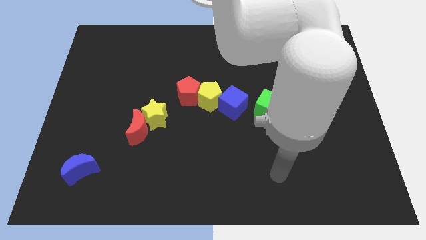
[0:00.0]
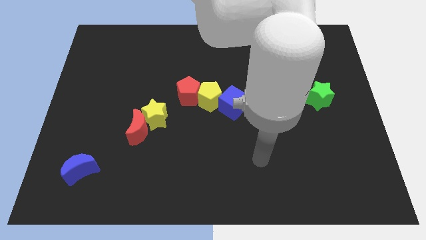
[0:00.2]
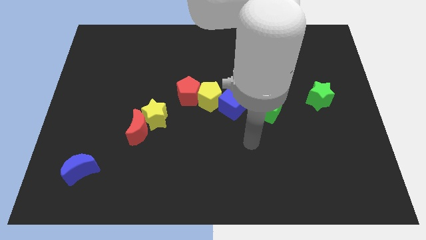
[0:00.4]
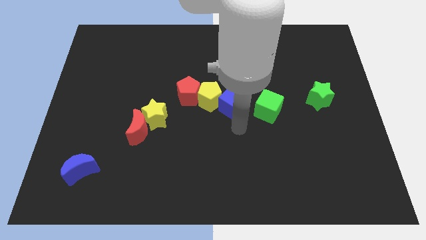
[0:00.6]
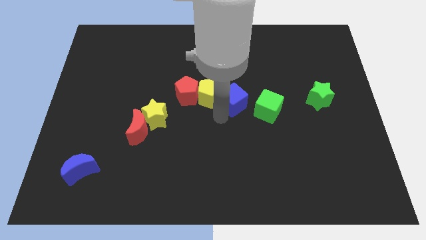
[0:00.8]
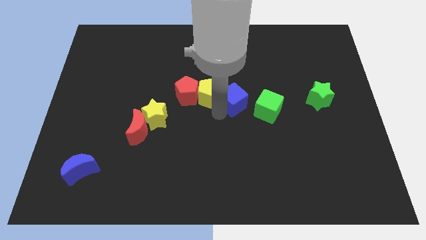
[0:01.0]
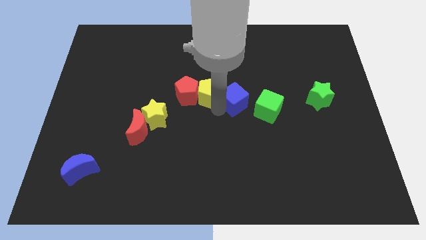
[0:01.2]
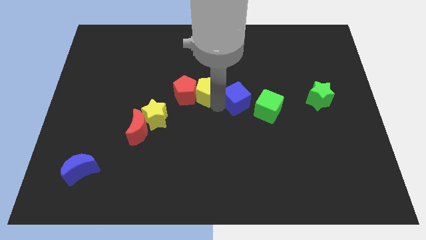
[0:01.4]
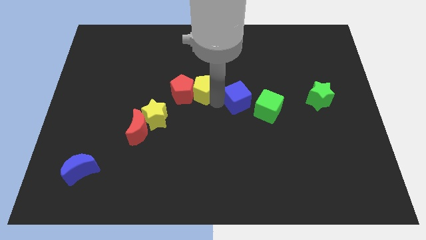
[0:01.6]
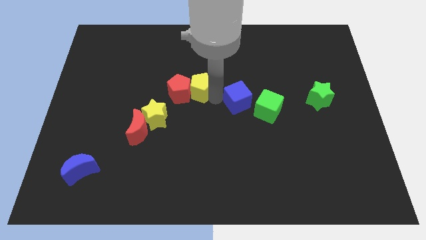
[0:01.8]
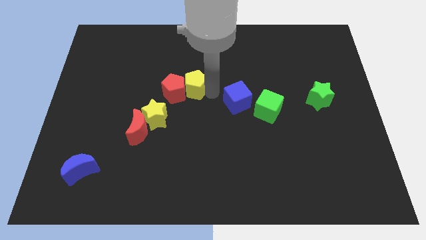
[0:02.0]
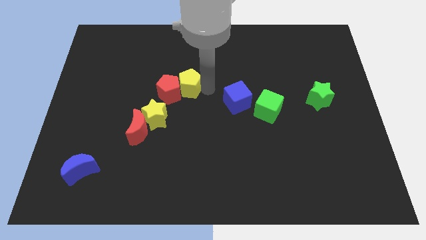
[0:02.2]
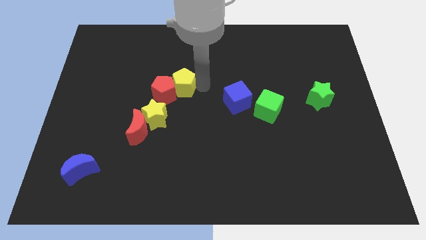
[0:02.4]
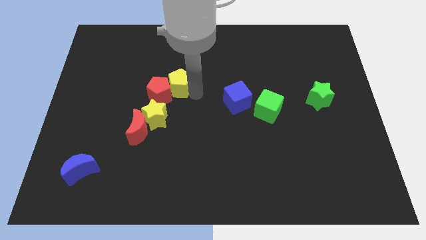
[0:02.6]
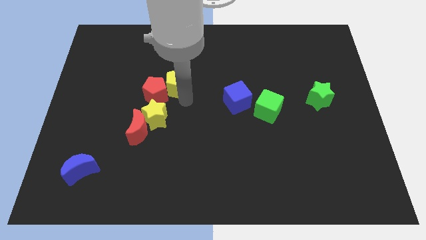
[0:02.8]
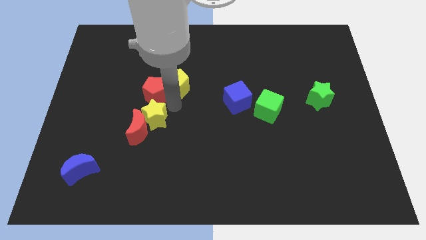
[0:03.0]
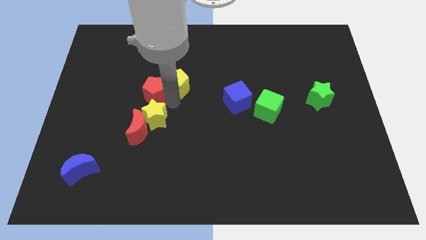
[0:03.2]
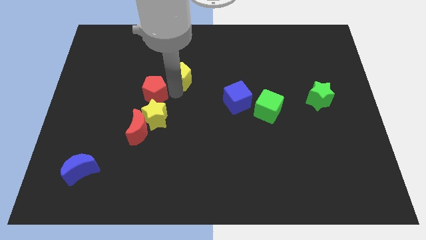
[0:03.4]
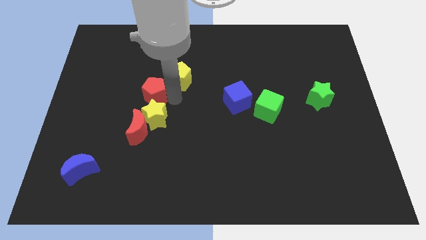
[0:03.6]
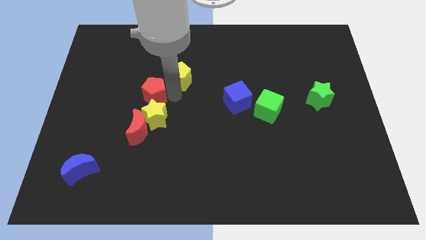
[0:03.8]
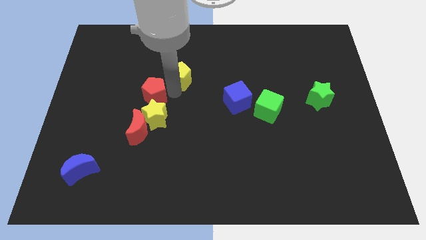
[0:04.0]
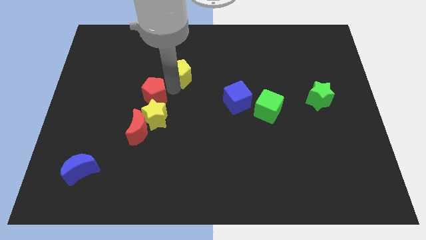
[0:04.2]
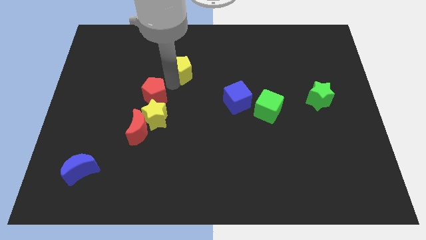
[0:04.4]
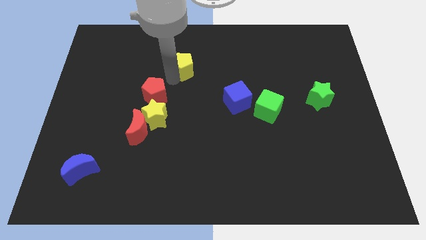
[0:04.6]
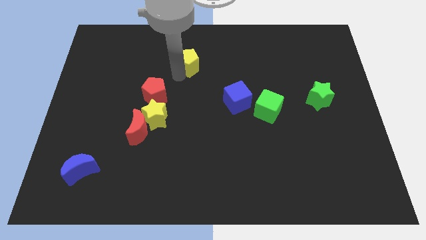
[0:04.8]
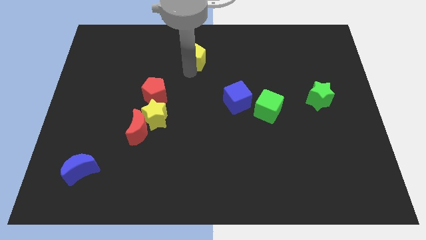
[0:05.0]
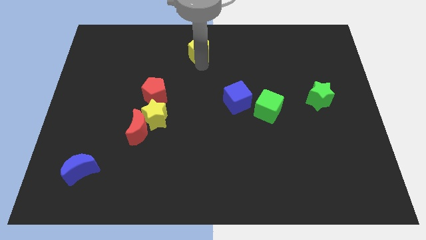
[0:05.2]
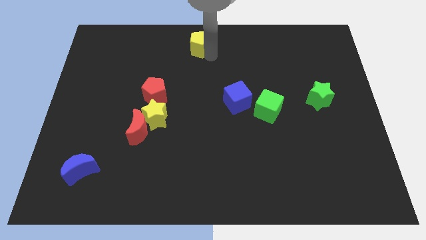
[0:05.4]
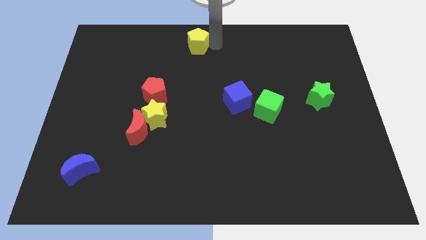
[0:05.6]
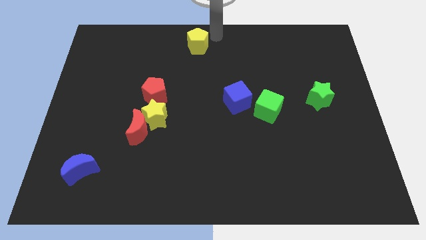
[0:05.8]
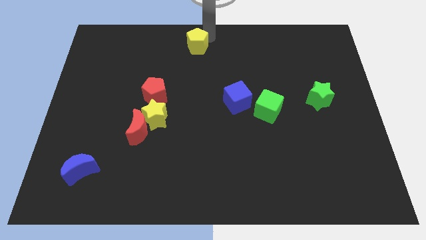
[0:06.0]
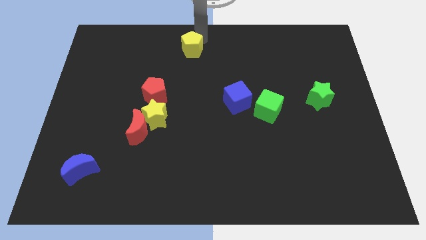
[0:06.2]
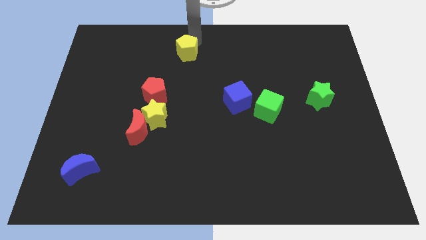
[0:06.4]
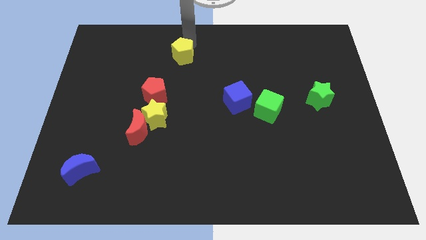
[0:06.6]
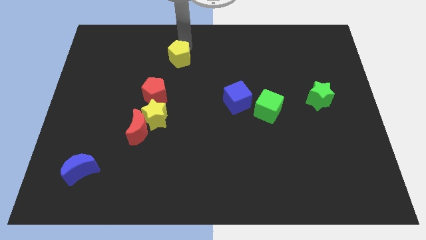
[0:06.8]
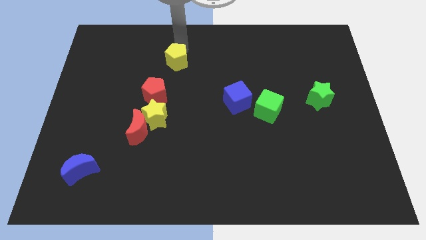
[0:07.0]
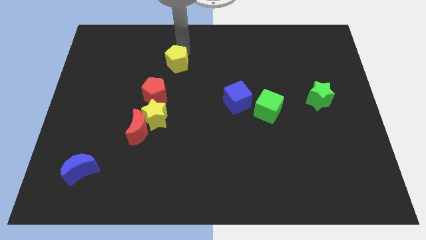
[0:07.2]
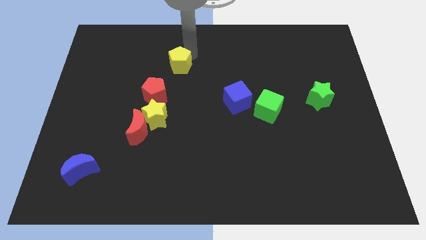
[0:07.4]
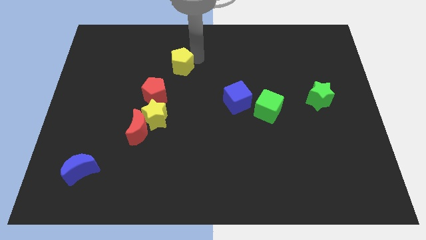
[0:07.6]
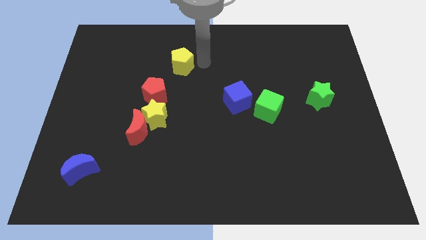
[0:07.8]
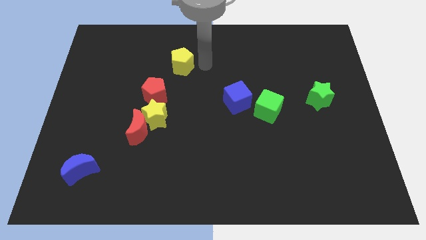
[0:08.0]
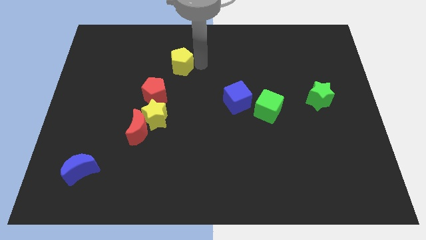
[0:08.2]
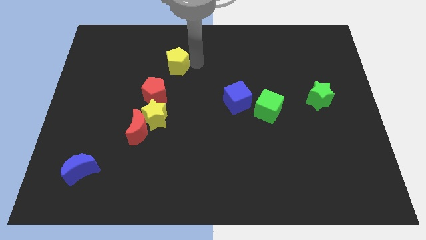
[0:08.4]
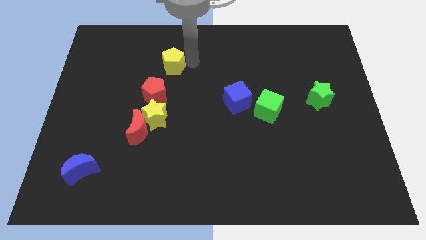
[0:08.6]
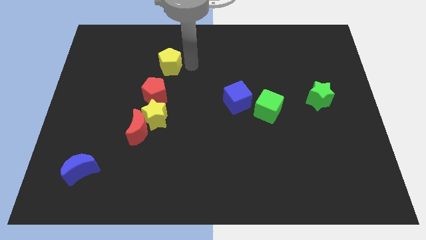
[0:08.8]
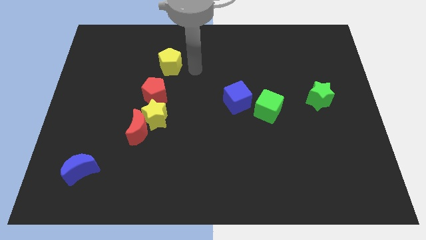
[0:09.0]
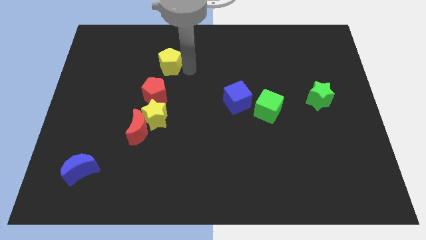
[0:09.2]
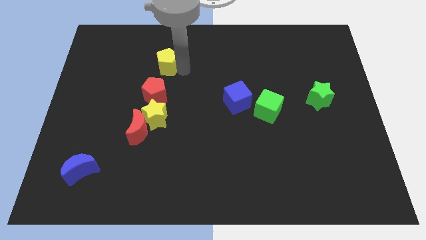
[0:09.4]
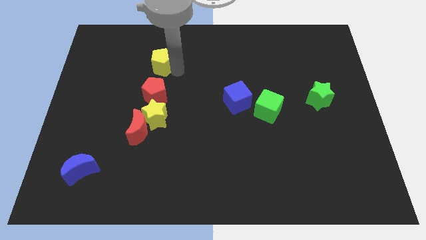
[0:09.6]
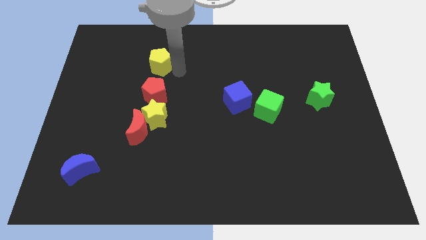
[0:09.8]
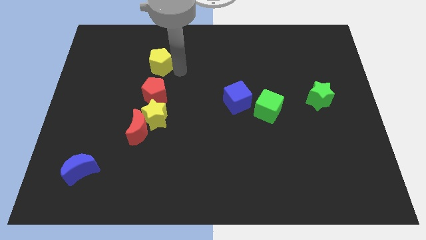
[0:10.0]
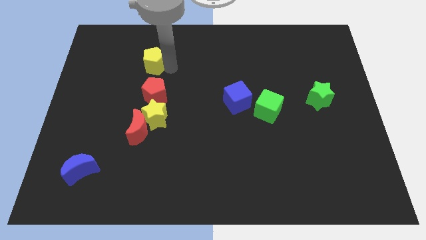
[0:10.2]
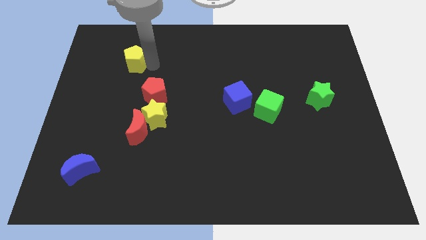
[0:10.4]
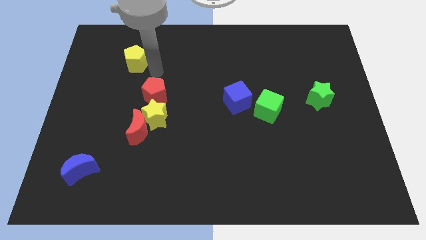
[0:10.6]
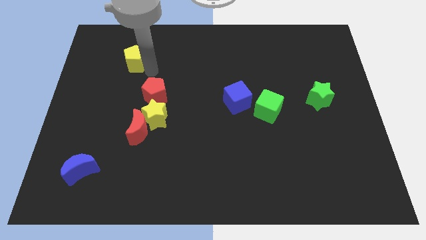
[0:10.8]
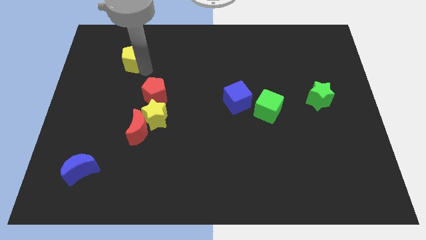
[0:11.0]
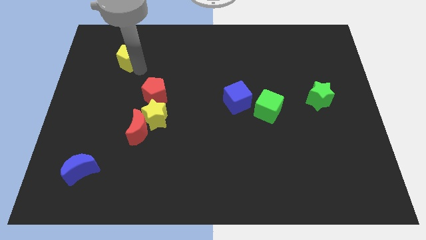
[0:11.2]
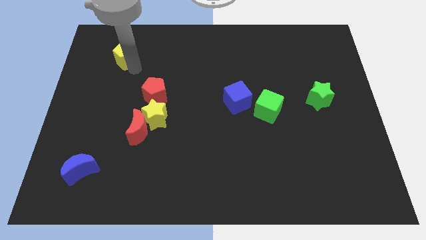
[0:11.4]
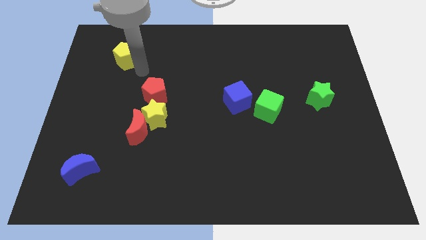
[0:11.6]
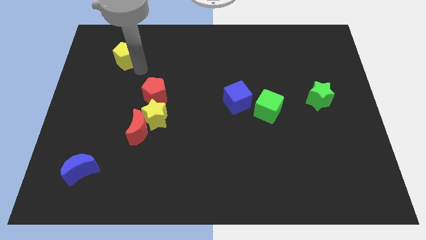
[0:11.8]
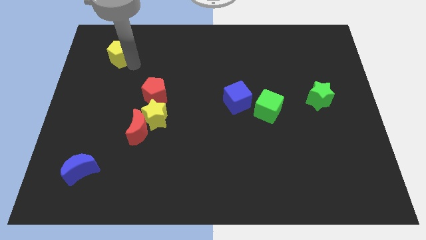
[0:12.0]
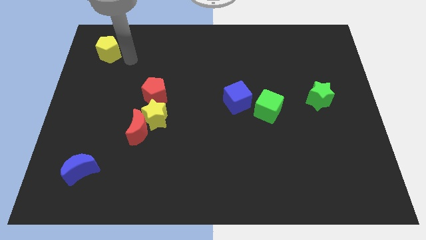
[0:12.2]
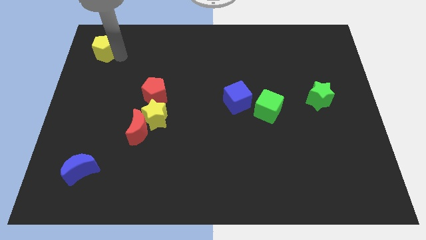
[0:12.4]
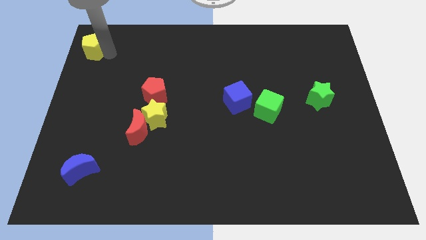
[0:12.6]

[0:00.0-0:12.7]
slide the yellow pentagon to the top left corner
